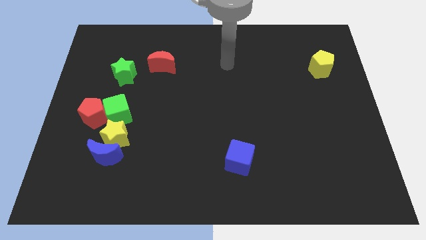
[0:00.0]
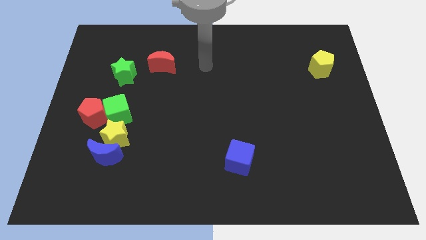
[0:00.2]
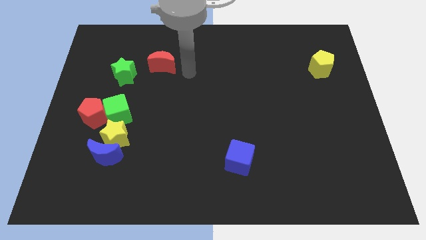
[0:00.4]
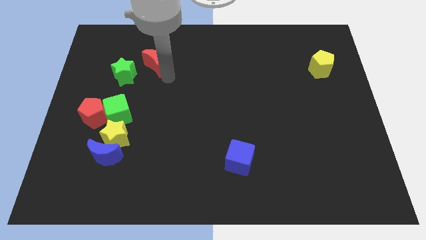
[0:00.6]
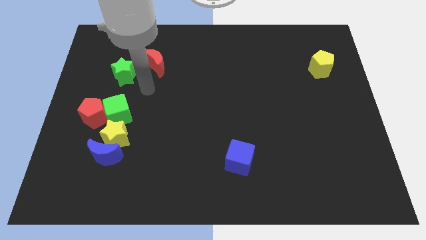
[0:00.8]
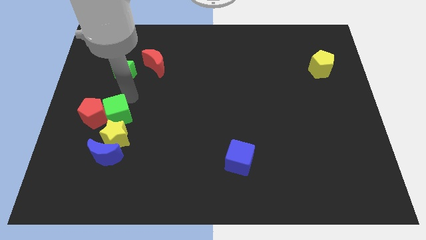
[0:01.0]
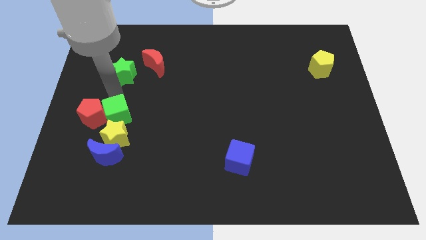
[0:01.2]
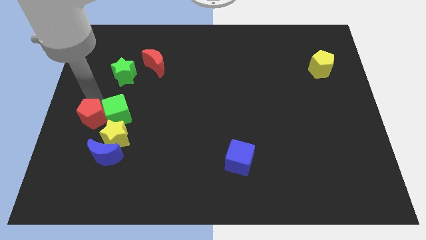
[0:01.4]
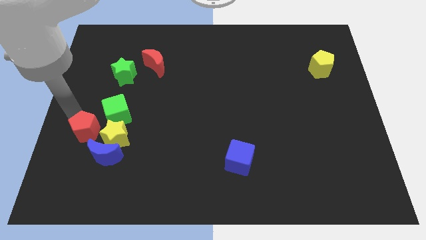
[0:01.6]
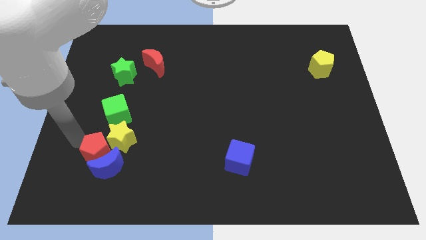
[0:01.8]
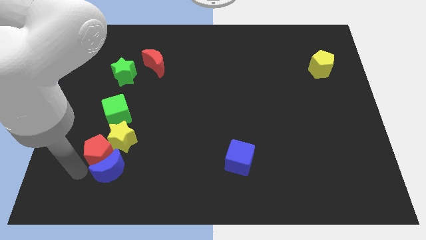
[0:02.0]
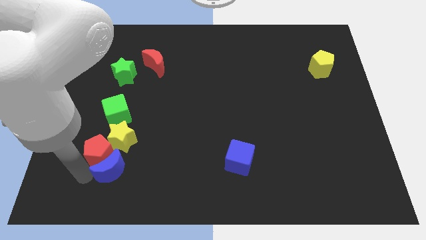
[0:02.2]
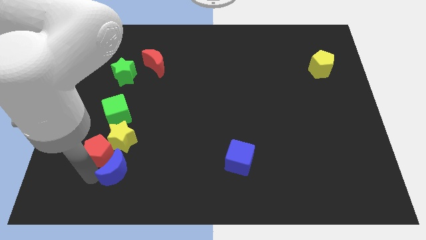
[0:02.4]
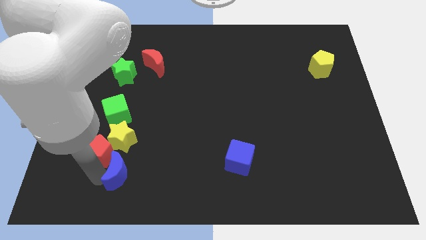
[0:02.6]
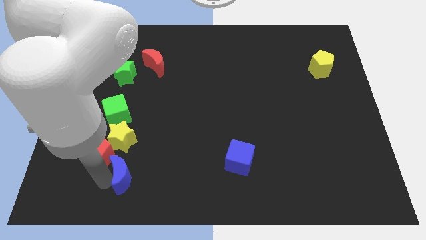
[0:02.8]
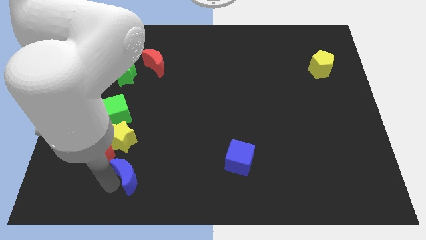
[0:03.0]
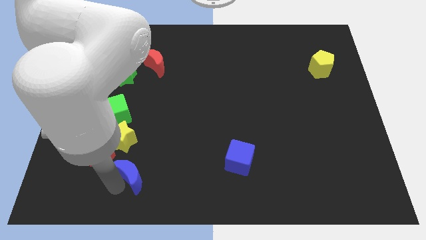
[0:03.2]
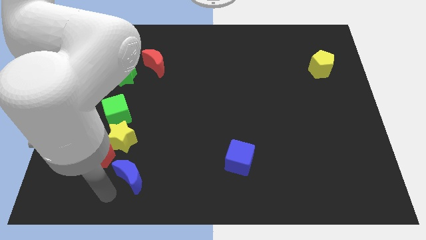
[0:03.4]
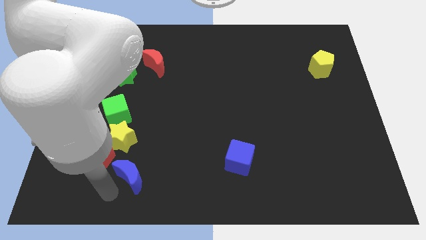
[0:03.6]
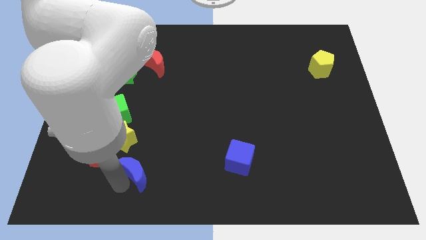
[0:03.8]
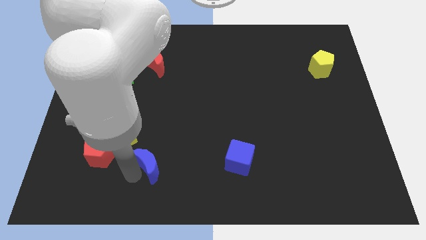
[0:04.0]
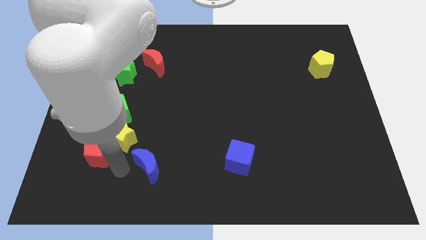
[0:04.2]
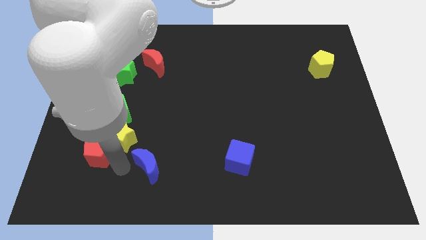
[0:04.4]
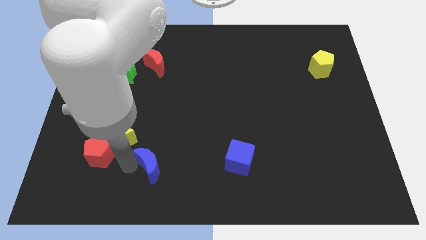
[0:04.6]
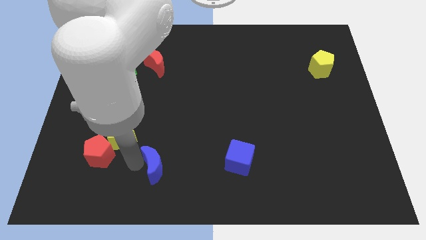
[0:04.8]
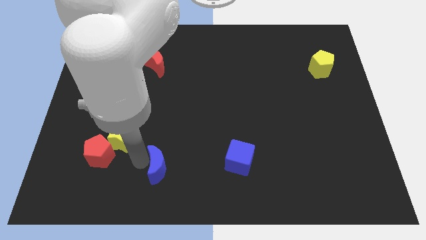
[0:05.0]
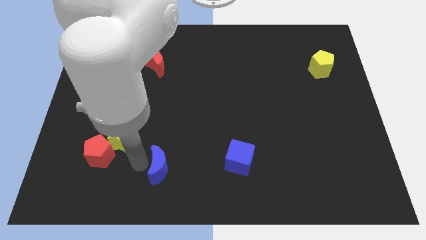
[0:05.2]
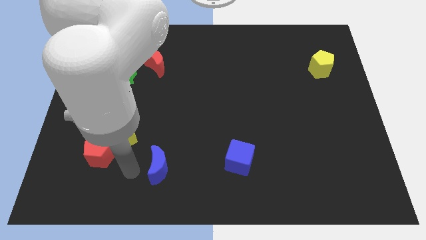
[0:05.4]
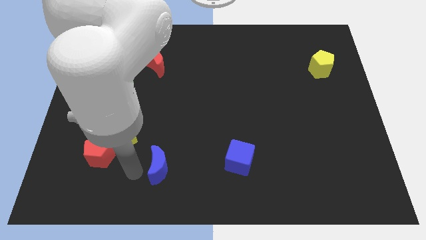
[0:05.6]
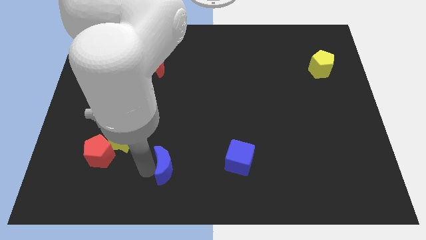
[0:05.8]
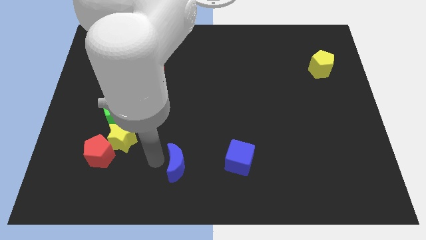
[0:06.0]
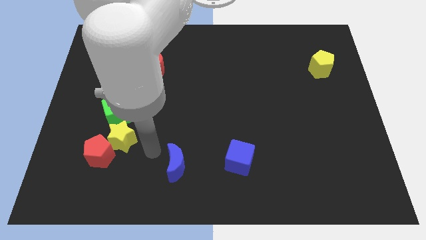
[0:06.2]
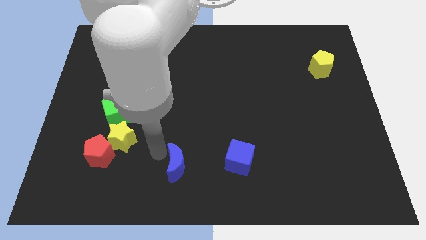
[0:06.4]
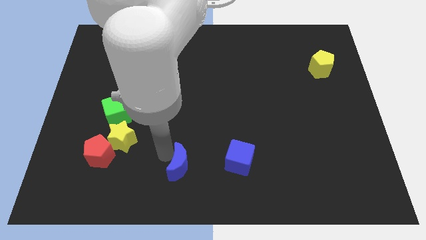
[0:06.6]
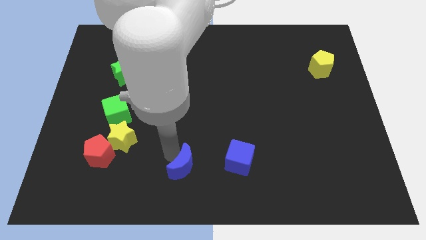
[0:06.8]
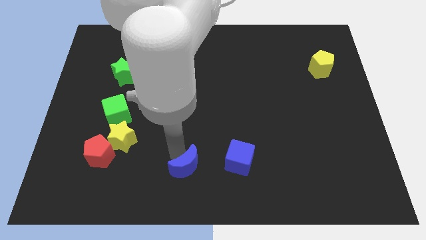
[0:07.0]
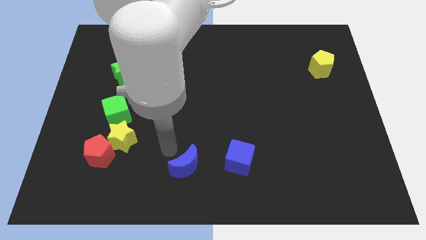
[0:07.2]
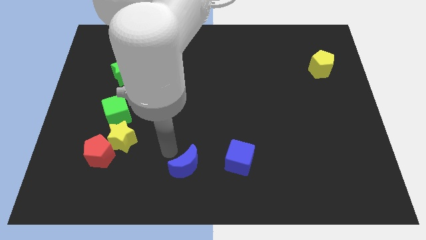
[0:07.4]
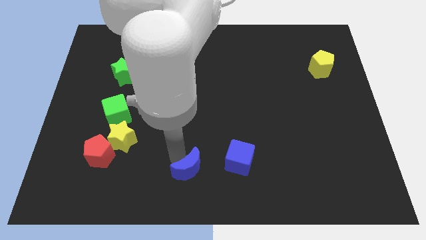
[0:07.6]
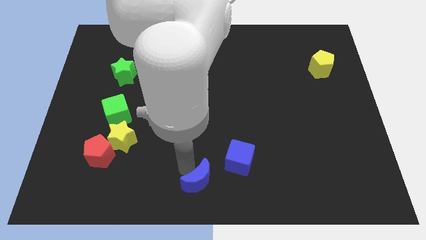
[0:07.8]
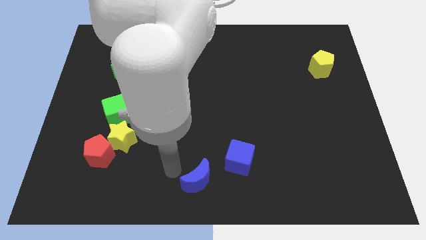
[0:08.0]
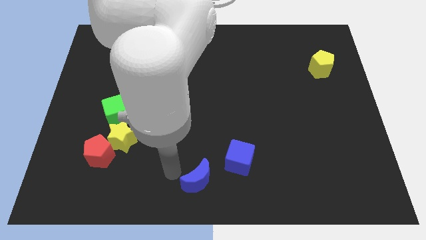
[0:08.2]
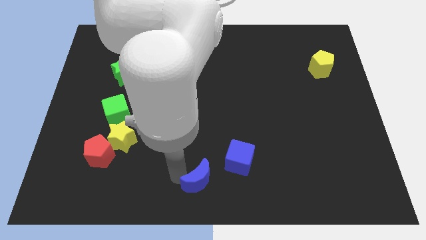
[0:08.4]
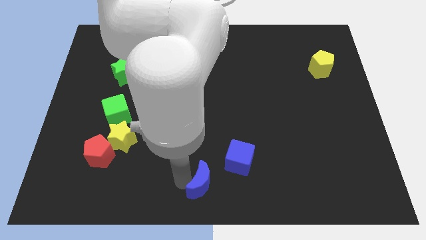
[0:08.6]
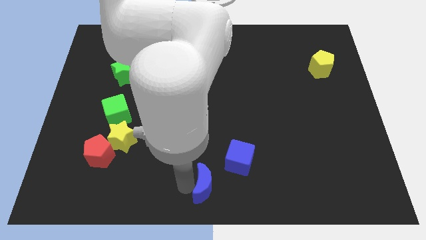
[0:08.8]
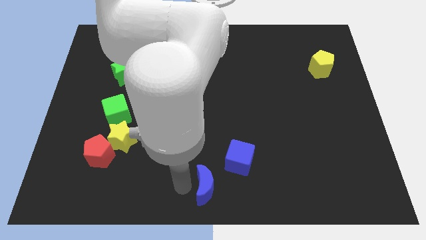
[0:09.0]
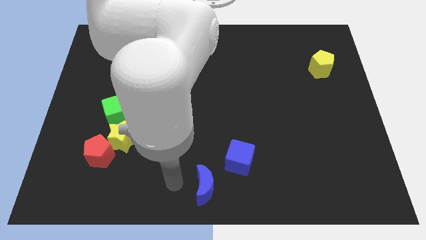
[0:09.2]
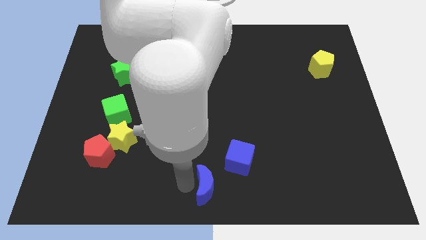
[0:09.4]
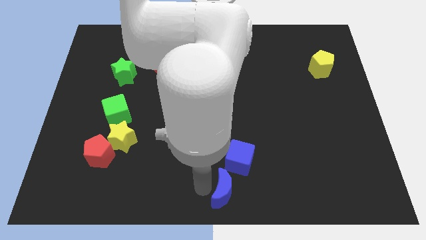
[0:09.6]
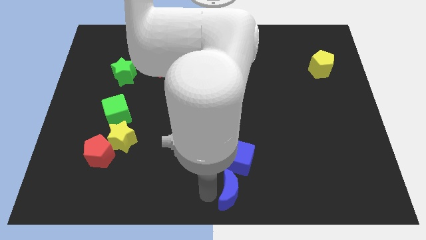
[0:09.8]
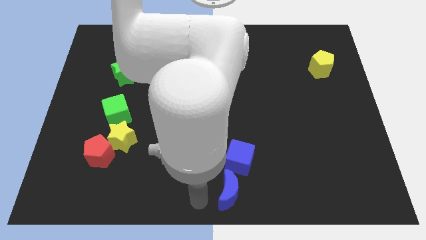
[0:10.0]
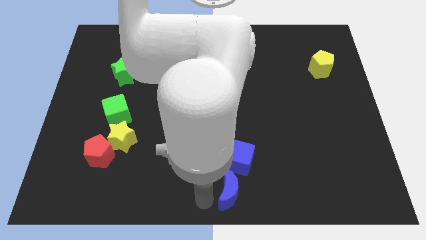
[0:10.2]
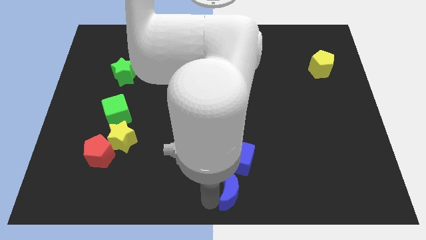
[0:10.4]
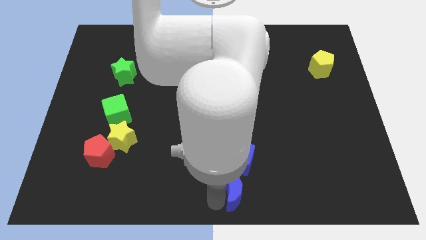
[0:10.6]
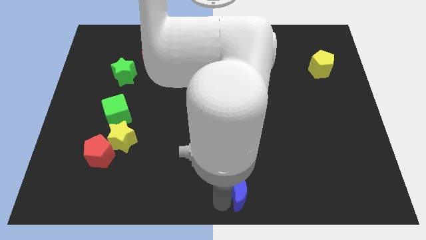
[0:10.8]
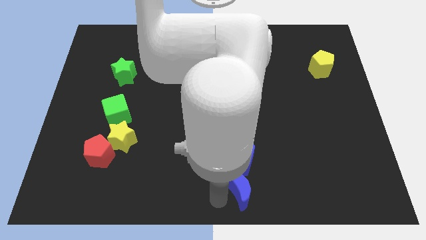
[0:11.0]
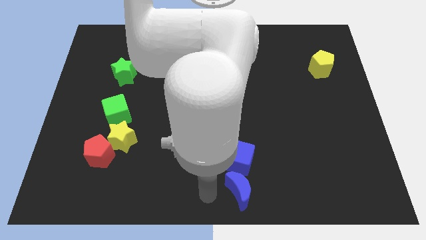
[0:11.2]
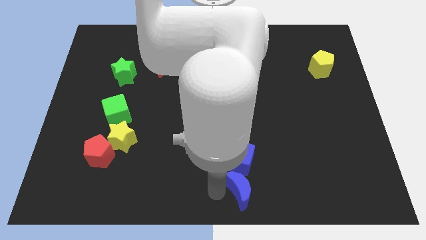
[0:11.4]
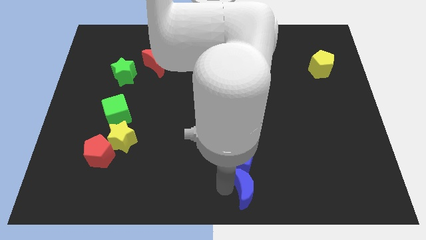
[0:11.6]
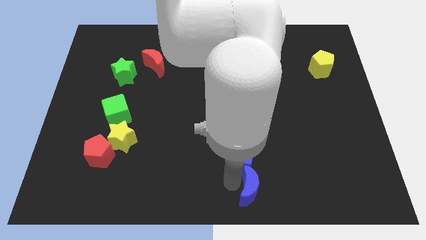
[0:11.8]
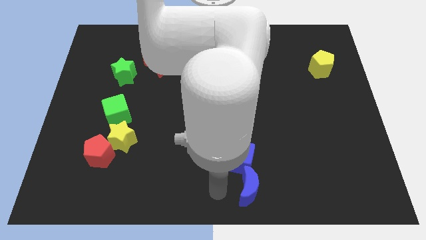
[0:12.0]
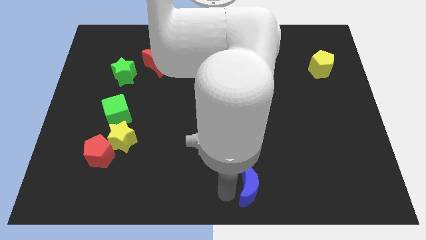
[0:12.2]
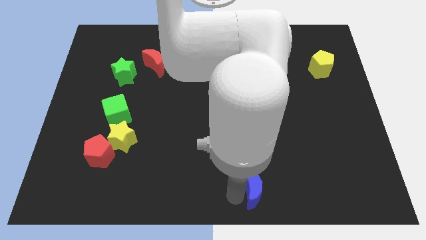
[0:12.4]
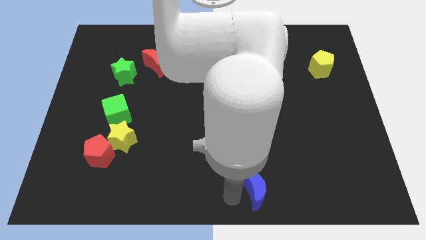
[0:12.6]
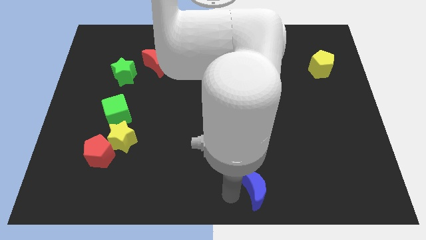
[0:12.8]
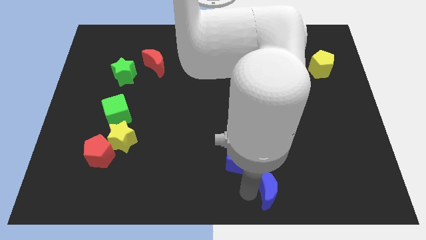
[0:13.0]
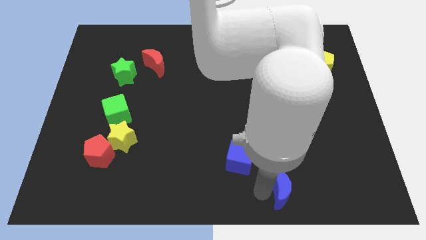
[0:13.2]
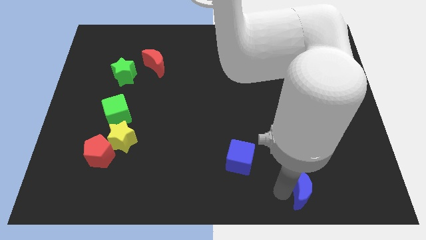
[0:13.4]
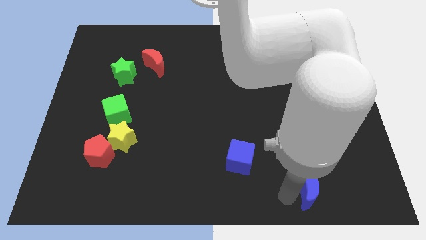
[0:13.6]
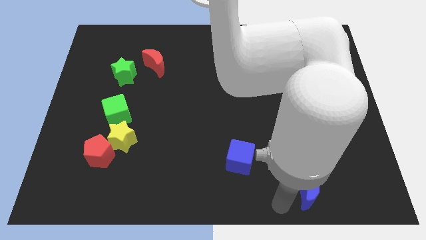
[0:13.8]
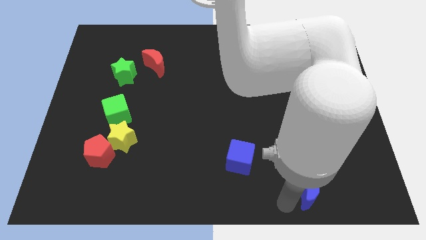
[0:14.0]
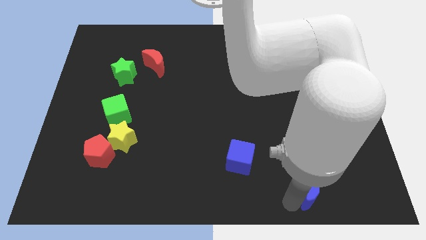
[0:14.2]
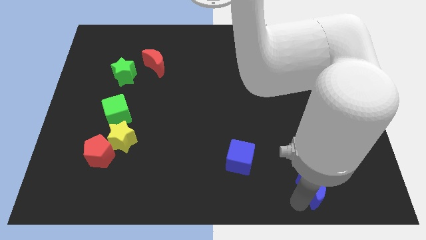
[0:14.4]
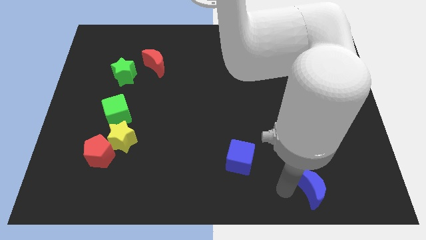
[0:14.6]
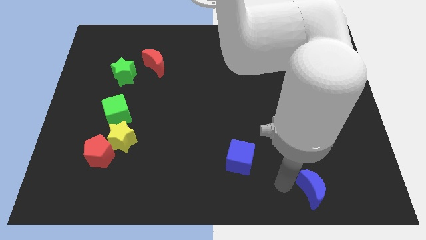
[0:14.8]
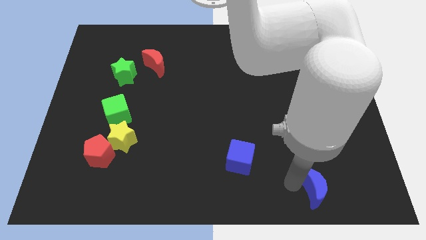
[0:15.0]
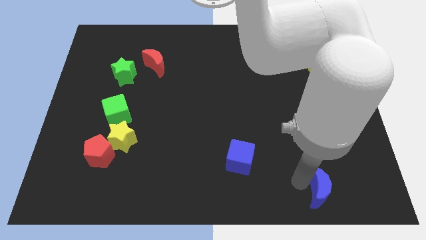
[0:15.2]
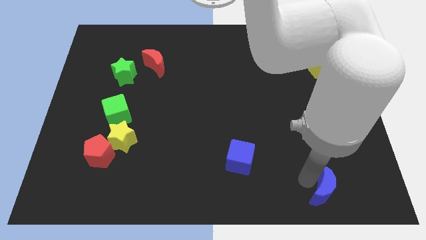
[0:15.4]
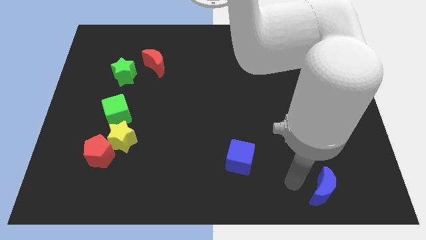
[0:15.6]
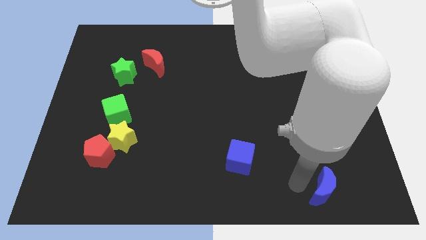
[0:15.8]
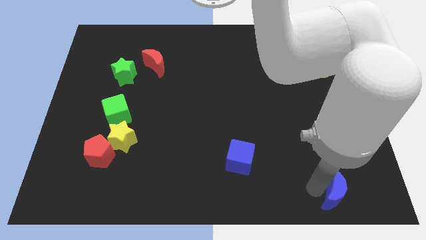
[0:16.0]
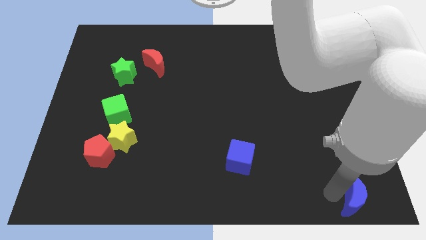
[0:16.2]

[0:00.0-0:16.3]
move the blue moon to the bottom right corner
